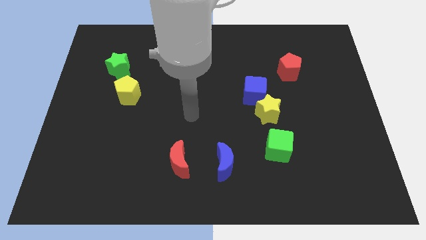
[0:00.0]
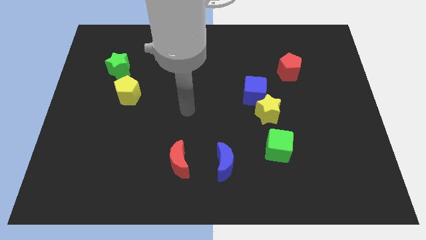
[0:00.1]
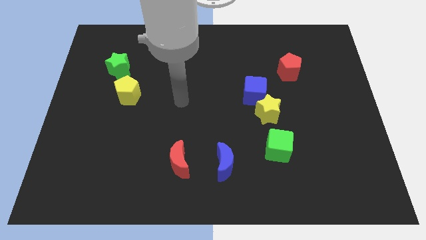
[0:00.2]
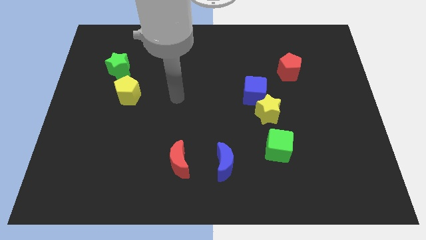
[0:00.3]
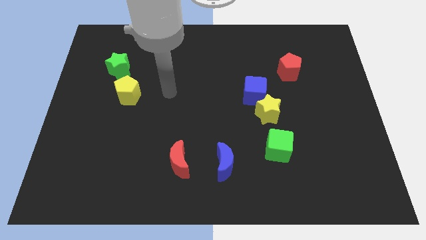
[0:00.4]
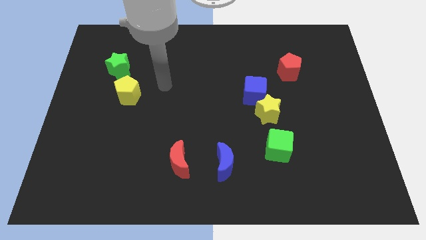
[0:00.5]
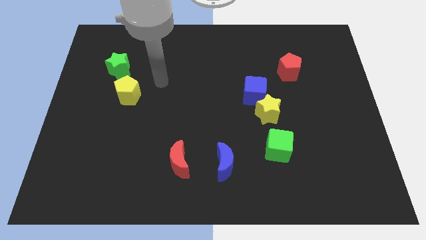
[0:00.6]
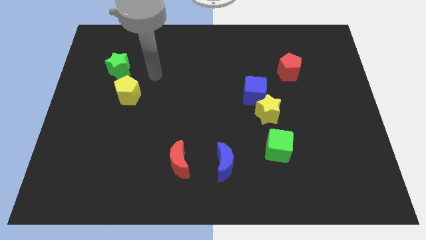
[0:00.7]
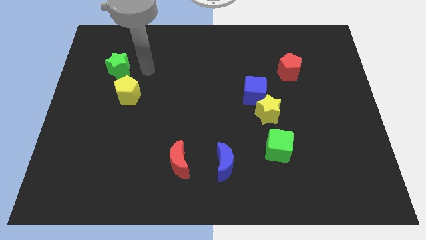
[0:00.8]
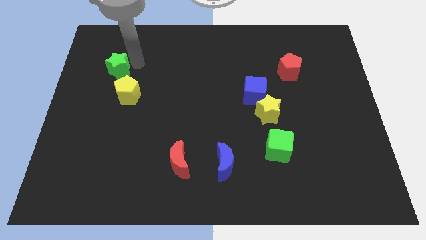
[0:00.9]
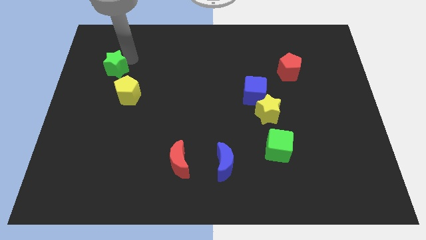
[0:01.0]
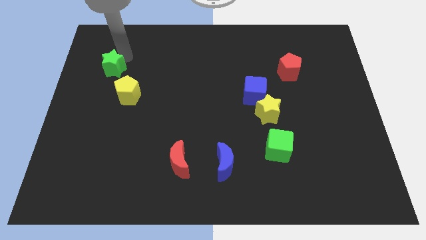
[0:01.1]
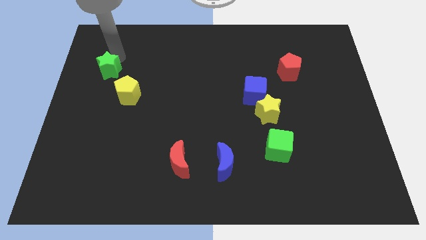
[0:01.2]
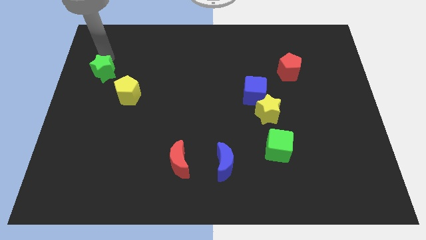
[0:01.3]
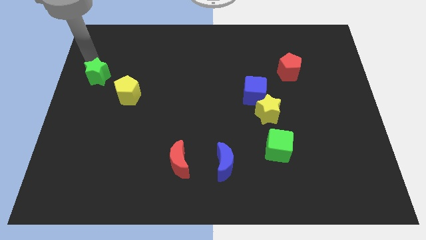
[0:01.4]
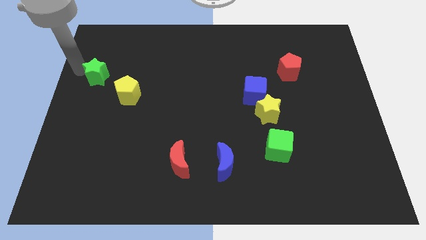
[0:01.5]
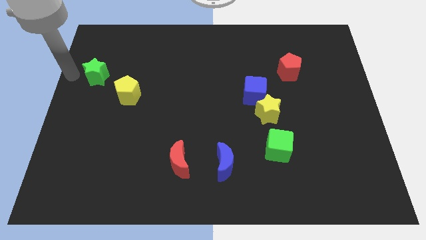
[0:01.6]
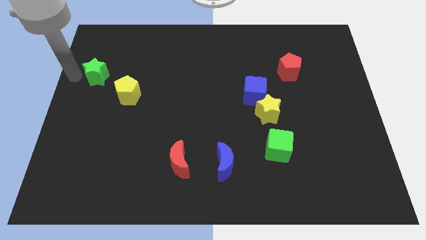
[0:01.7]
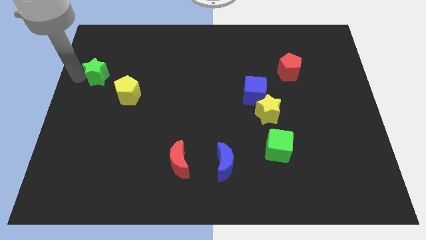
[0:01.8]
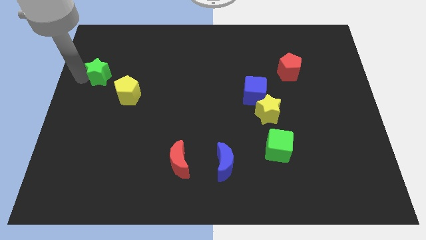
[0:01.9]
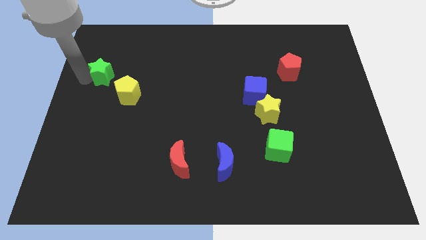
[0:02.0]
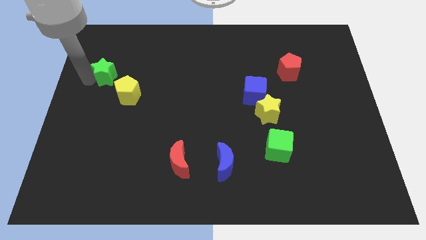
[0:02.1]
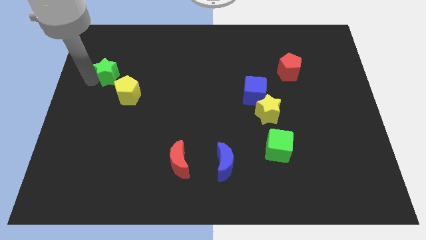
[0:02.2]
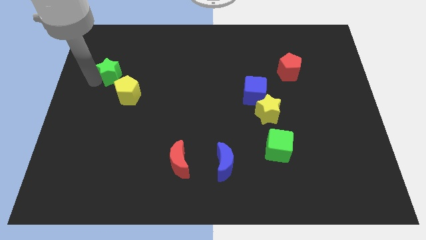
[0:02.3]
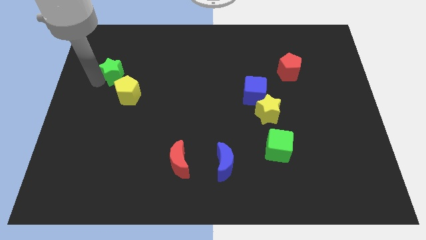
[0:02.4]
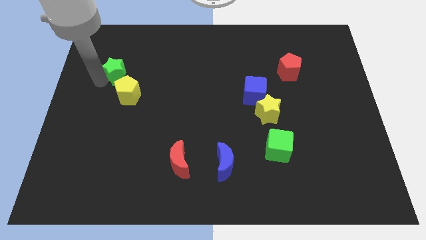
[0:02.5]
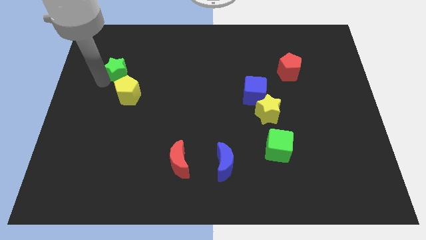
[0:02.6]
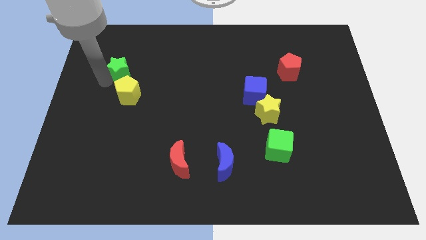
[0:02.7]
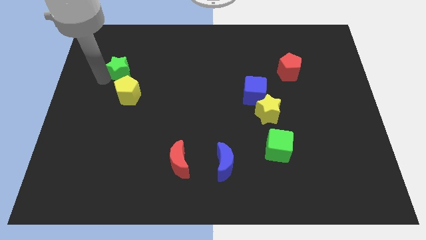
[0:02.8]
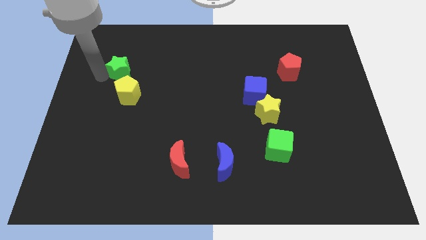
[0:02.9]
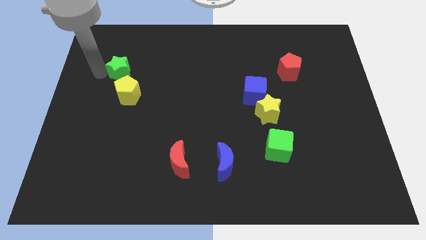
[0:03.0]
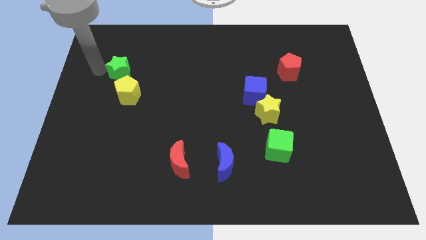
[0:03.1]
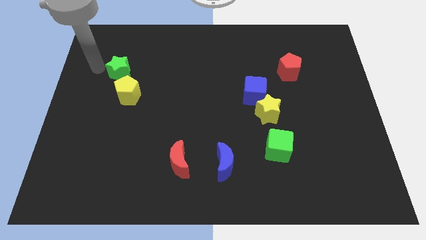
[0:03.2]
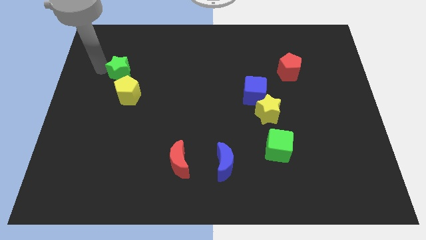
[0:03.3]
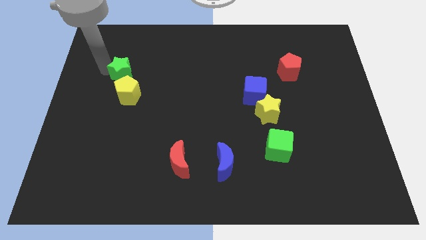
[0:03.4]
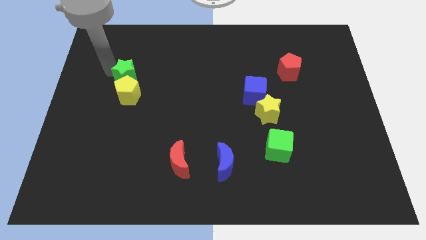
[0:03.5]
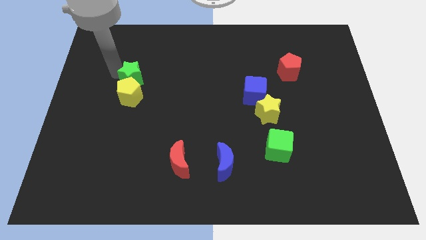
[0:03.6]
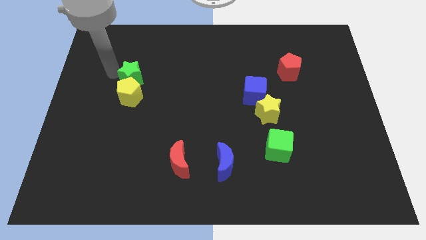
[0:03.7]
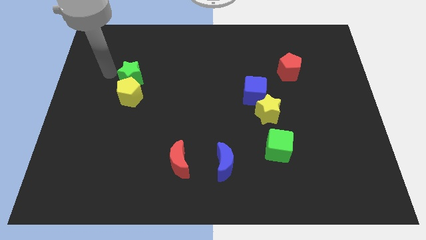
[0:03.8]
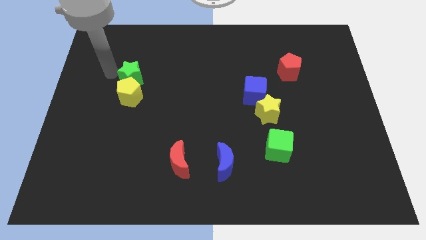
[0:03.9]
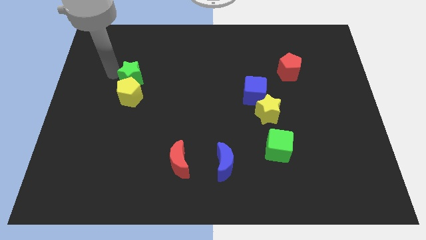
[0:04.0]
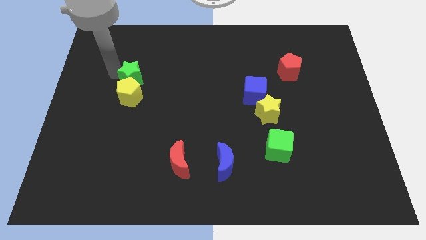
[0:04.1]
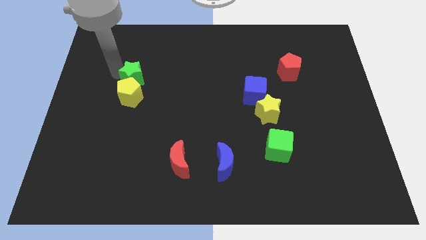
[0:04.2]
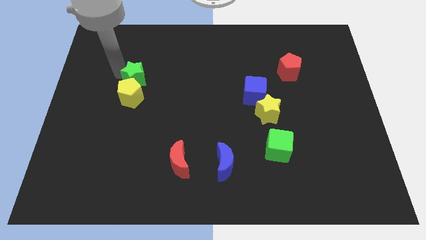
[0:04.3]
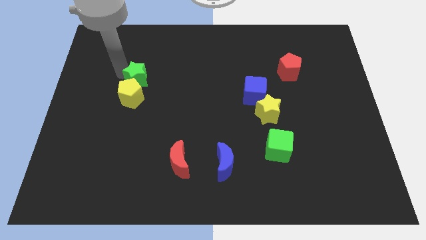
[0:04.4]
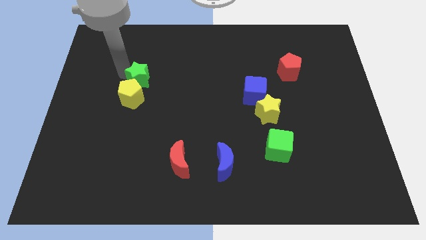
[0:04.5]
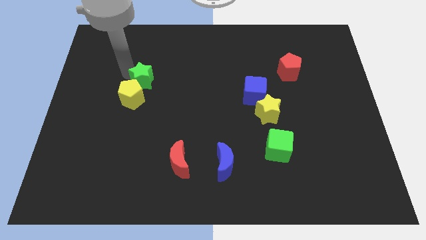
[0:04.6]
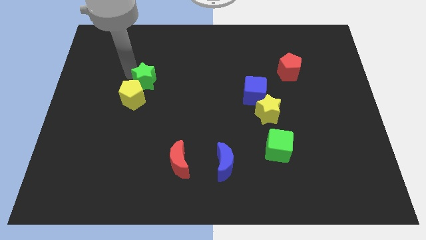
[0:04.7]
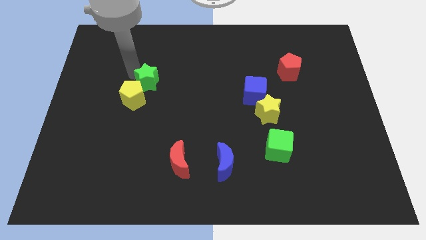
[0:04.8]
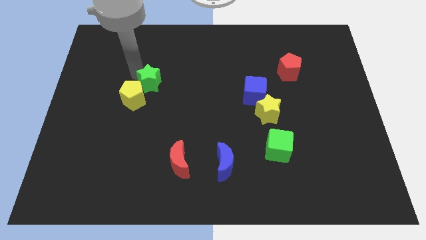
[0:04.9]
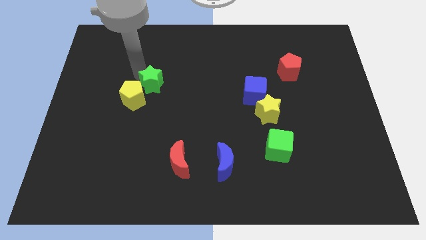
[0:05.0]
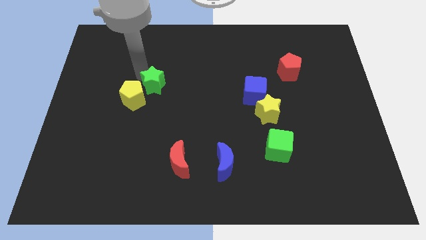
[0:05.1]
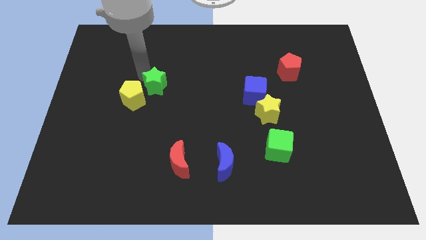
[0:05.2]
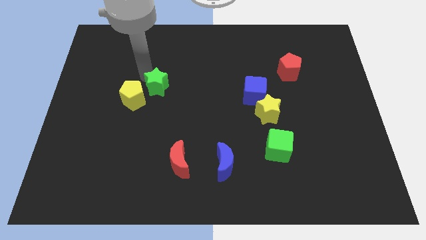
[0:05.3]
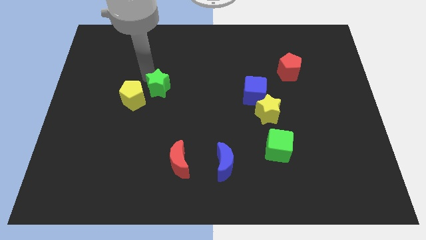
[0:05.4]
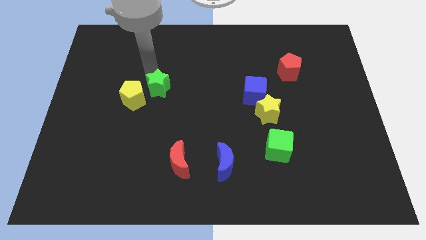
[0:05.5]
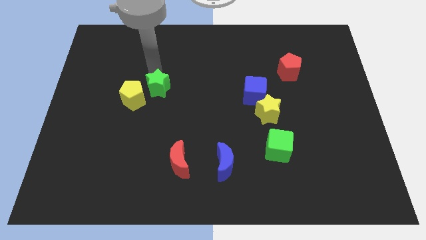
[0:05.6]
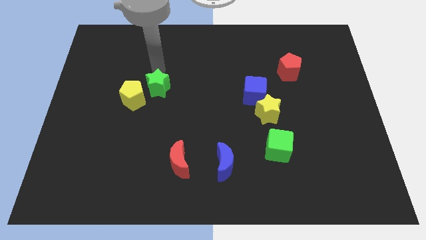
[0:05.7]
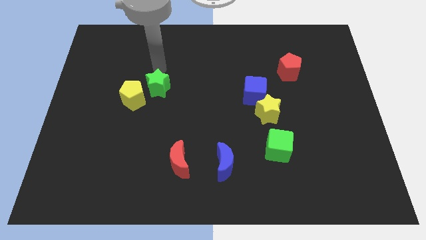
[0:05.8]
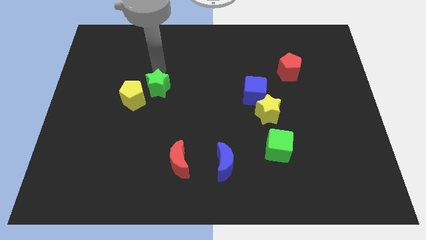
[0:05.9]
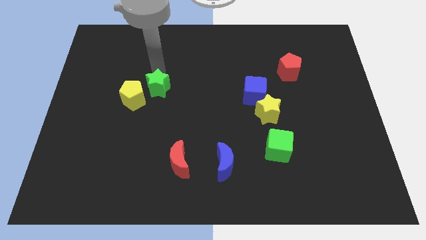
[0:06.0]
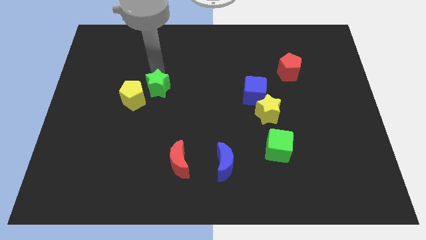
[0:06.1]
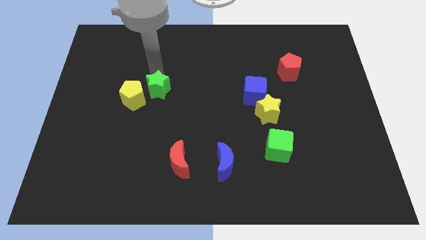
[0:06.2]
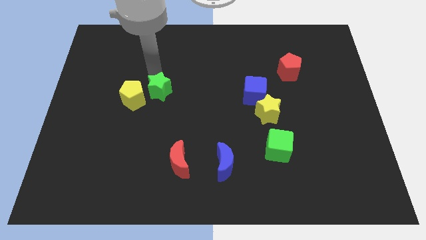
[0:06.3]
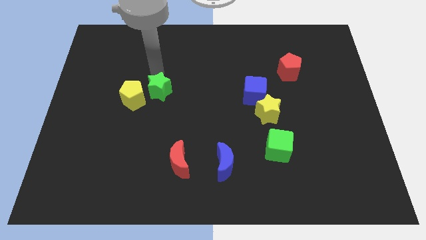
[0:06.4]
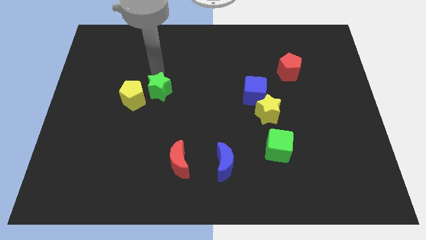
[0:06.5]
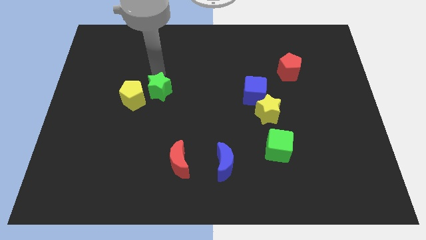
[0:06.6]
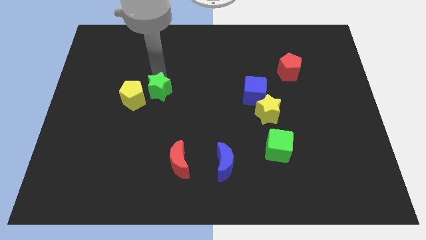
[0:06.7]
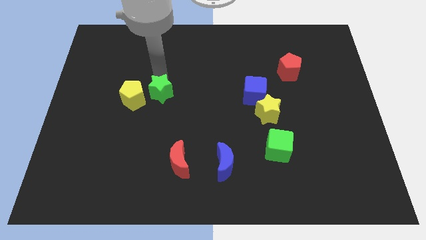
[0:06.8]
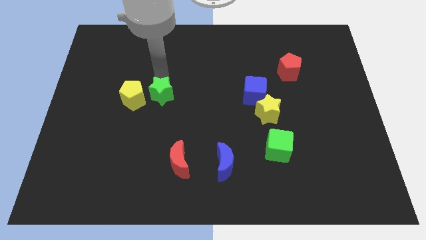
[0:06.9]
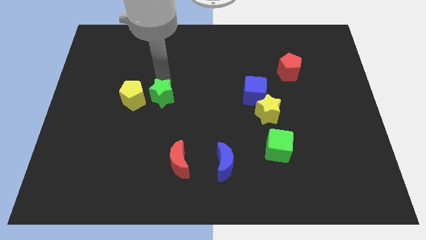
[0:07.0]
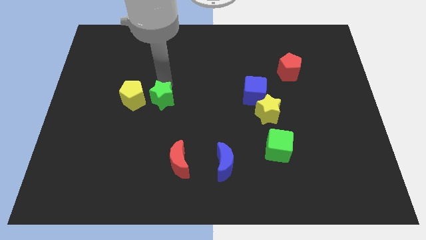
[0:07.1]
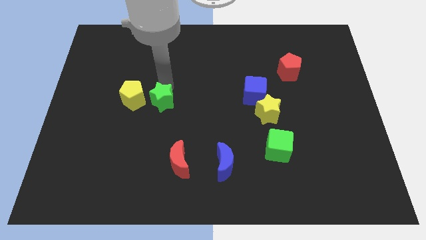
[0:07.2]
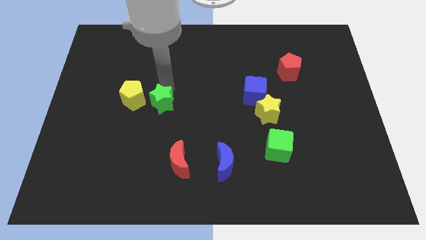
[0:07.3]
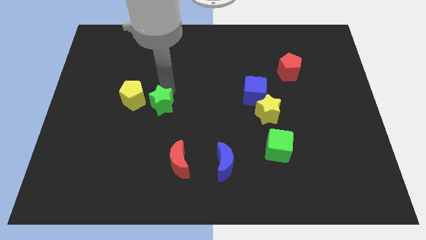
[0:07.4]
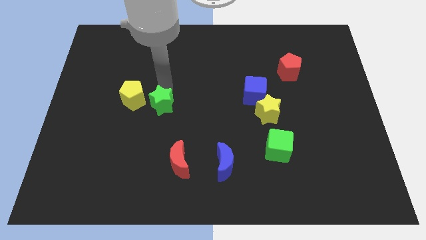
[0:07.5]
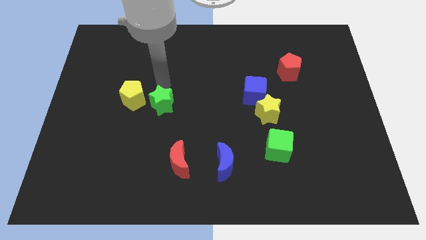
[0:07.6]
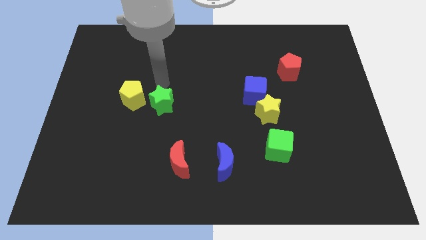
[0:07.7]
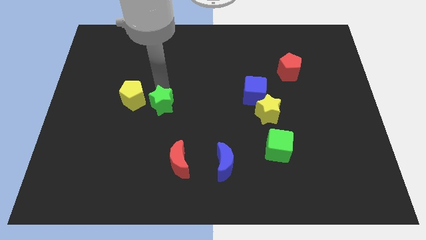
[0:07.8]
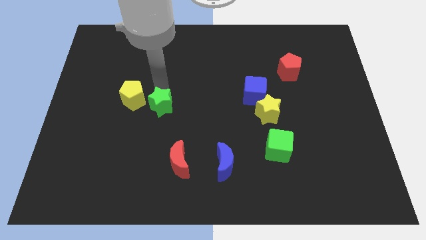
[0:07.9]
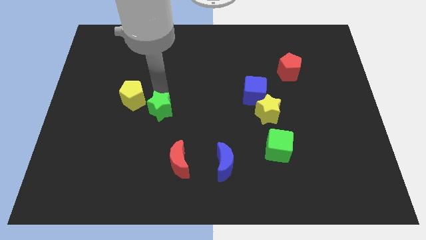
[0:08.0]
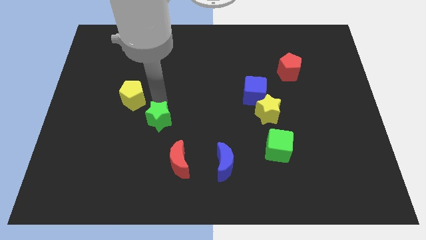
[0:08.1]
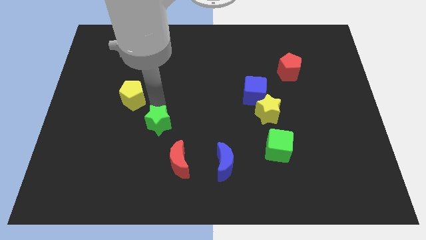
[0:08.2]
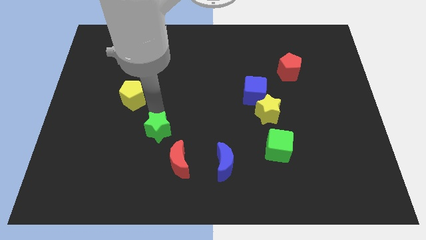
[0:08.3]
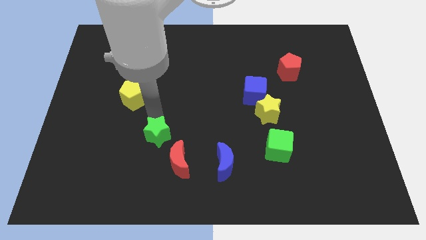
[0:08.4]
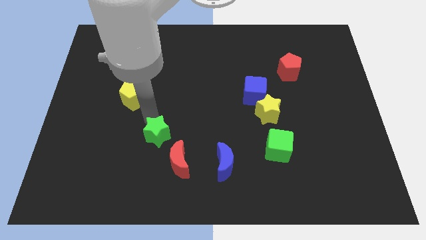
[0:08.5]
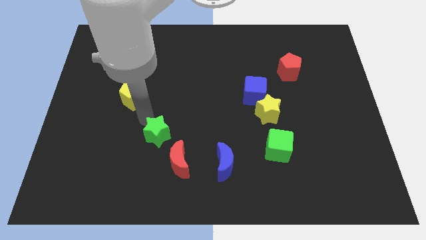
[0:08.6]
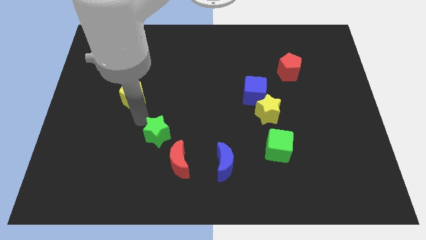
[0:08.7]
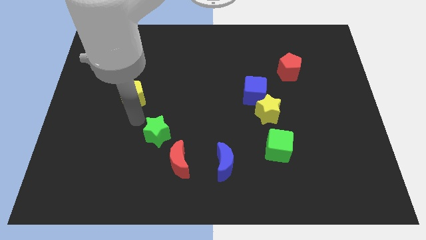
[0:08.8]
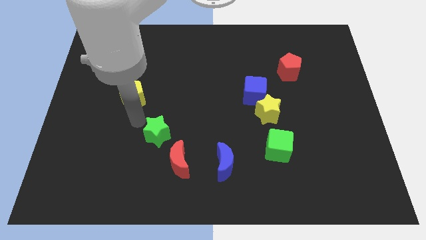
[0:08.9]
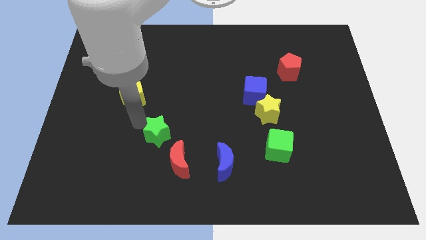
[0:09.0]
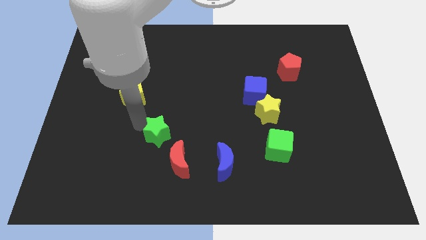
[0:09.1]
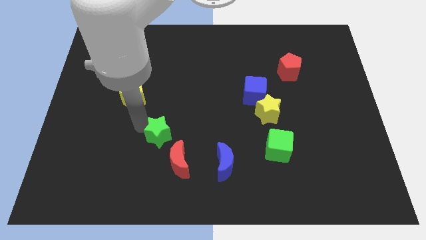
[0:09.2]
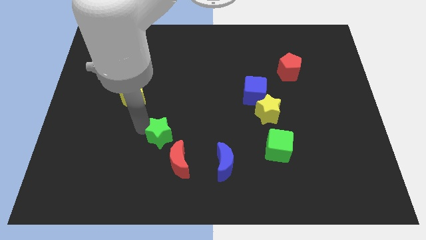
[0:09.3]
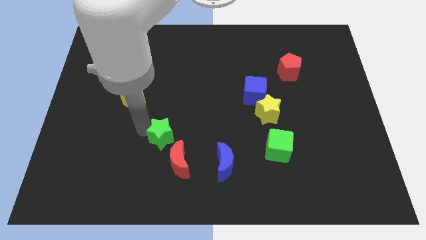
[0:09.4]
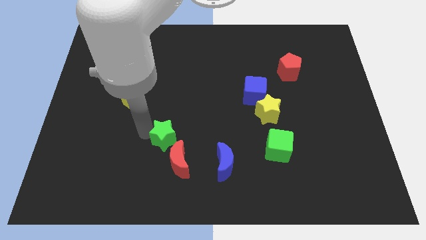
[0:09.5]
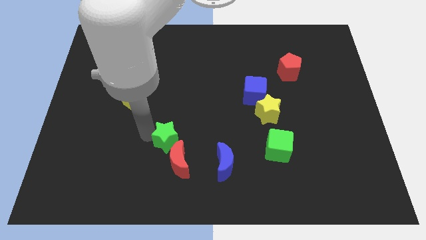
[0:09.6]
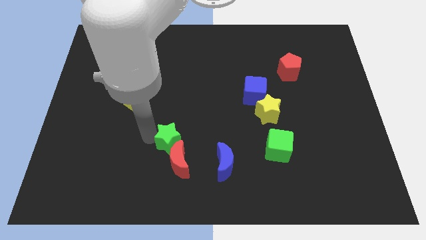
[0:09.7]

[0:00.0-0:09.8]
move the green star to the red moon
